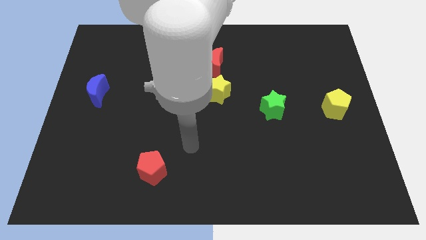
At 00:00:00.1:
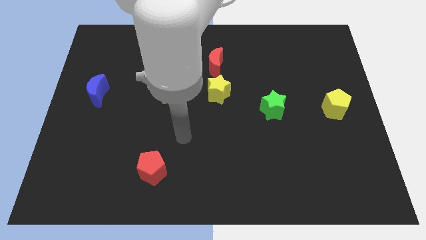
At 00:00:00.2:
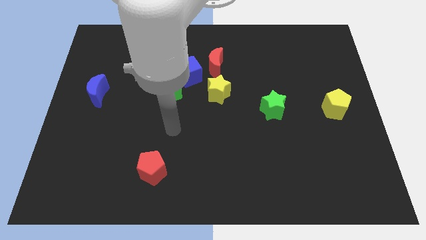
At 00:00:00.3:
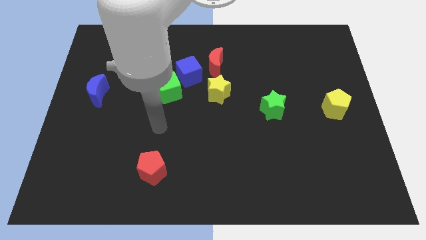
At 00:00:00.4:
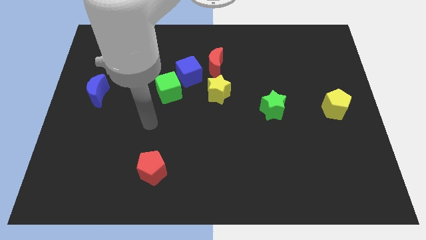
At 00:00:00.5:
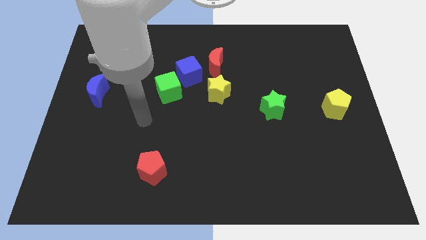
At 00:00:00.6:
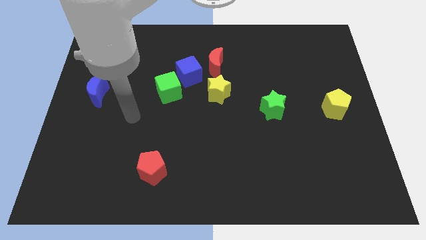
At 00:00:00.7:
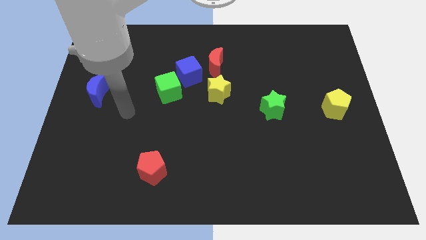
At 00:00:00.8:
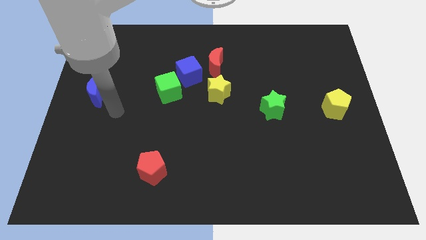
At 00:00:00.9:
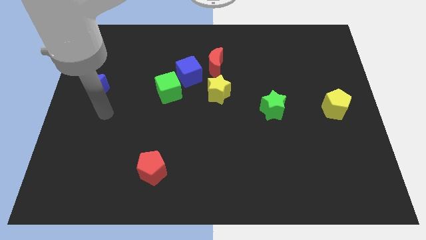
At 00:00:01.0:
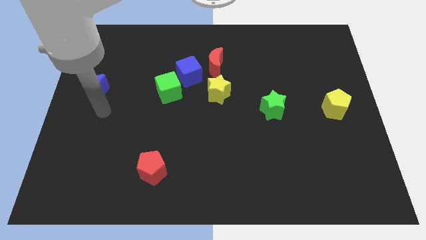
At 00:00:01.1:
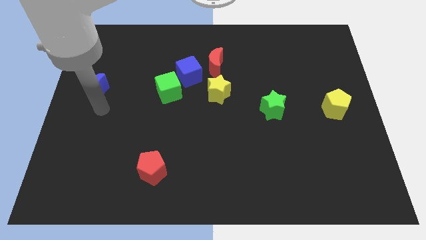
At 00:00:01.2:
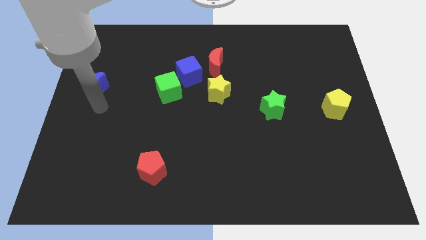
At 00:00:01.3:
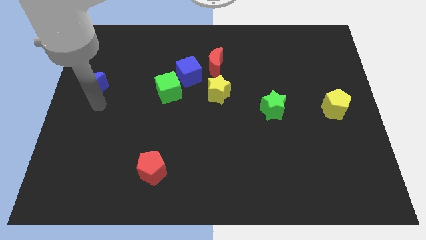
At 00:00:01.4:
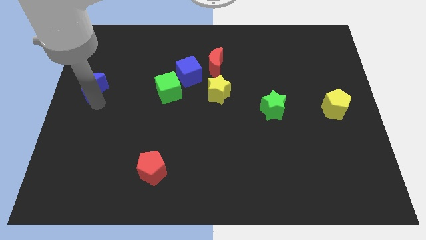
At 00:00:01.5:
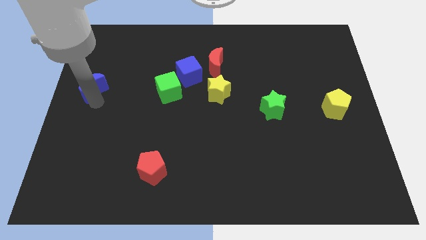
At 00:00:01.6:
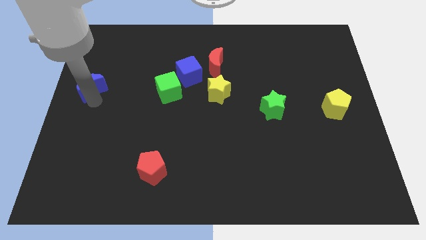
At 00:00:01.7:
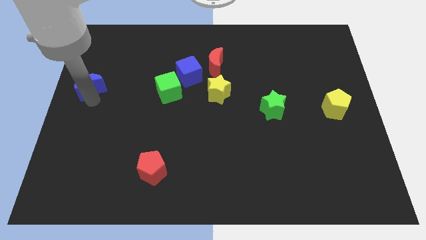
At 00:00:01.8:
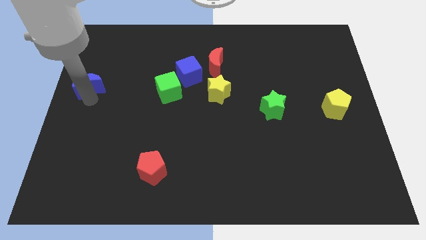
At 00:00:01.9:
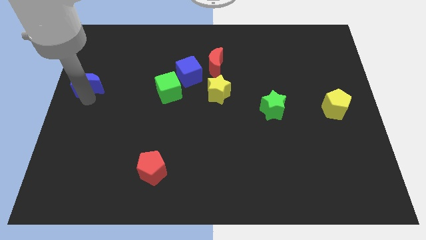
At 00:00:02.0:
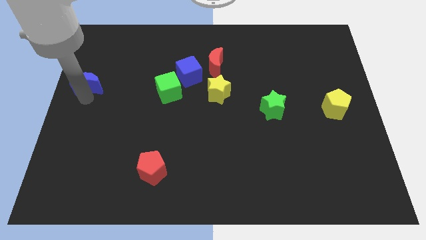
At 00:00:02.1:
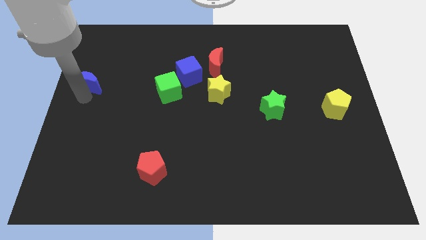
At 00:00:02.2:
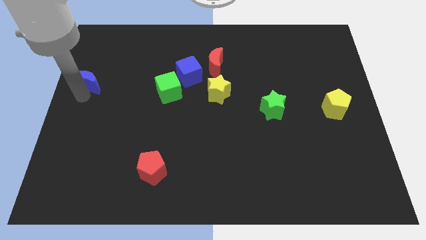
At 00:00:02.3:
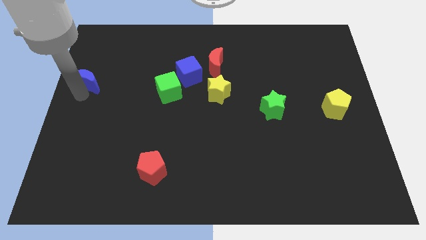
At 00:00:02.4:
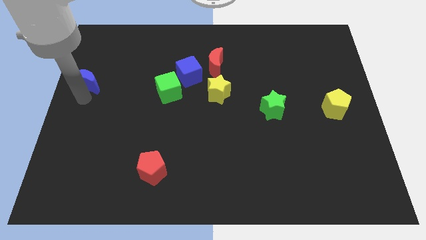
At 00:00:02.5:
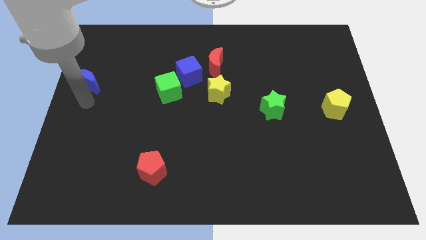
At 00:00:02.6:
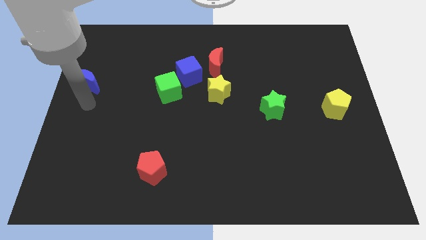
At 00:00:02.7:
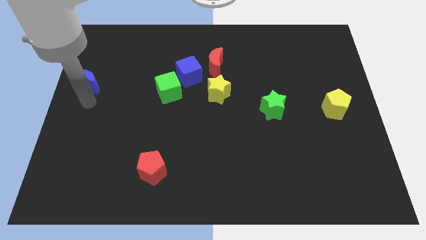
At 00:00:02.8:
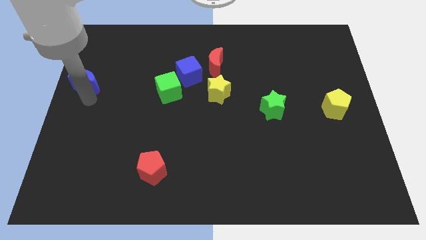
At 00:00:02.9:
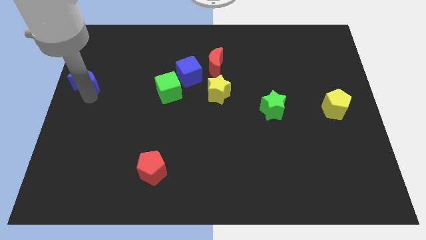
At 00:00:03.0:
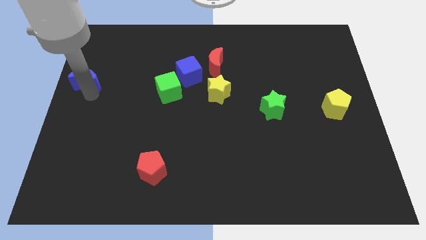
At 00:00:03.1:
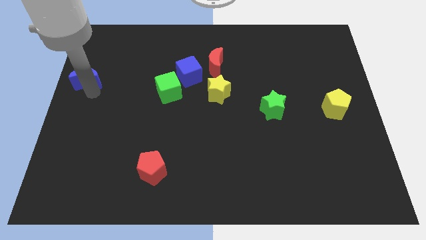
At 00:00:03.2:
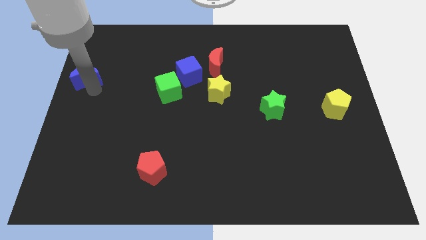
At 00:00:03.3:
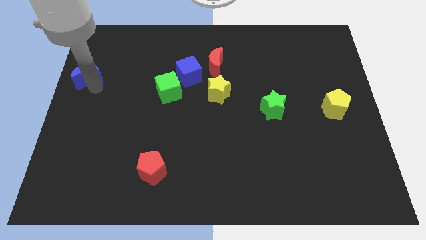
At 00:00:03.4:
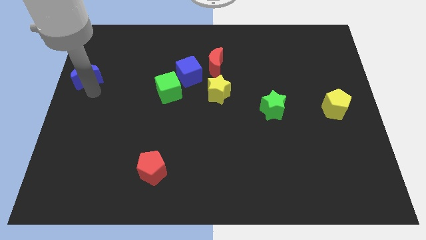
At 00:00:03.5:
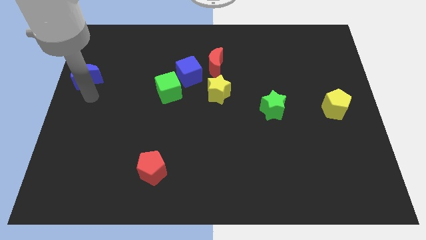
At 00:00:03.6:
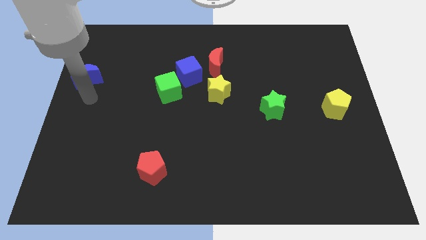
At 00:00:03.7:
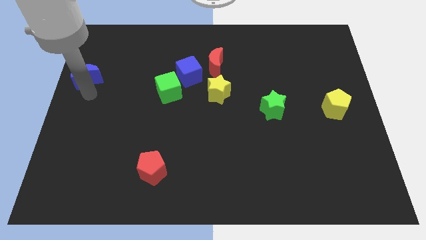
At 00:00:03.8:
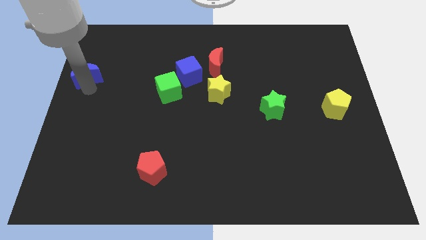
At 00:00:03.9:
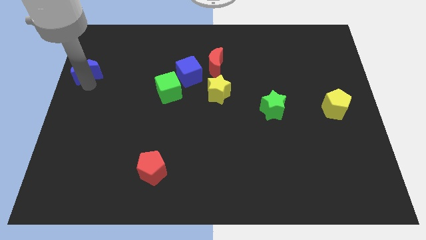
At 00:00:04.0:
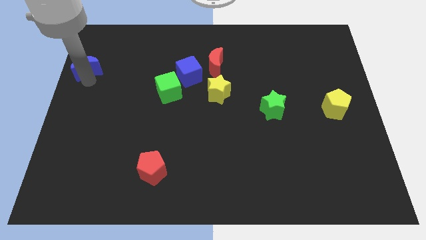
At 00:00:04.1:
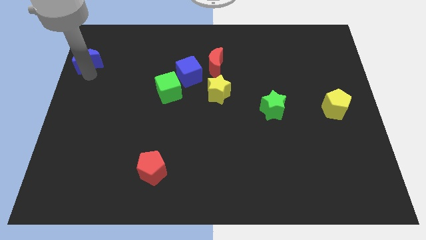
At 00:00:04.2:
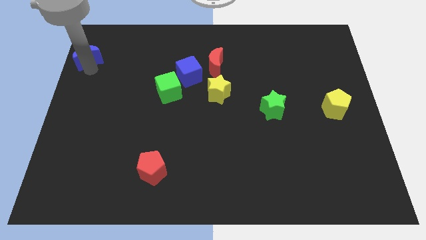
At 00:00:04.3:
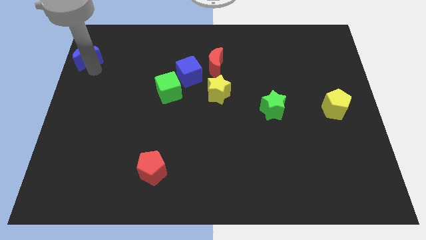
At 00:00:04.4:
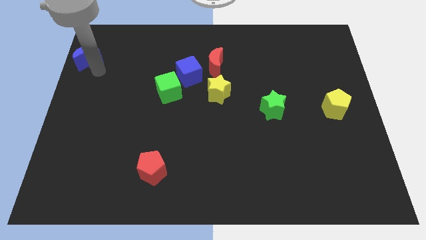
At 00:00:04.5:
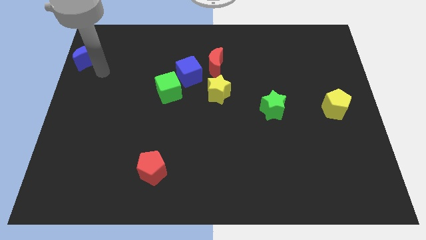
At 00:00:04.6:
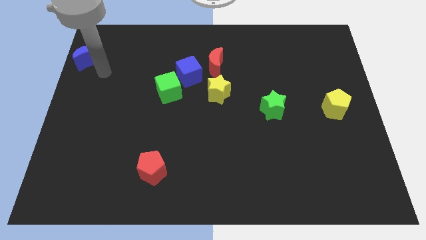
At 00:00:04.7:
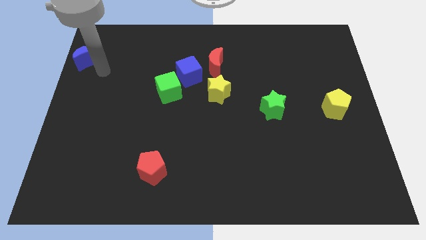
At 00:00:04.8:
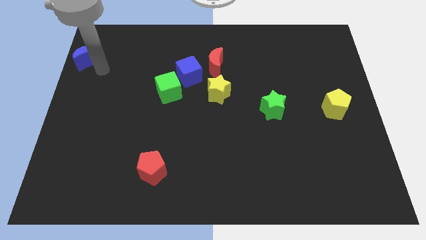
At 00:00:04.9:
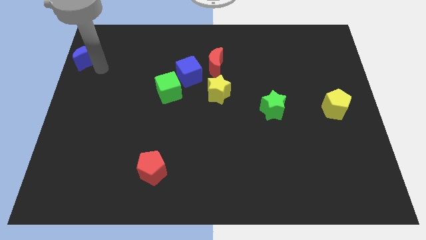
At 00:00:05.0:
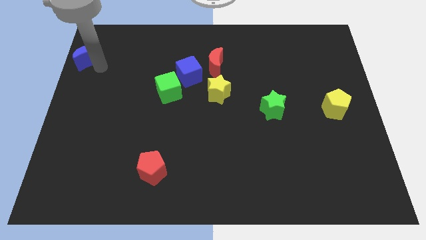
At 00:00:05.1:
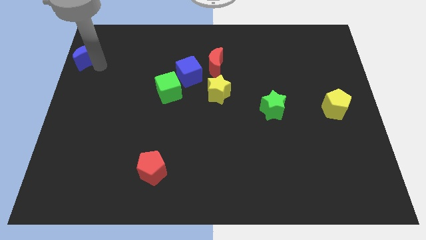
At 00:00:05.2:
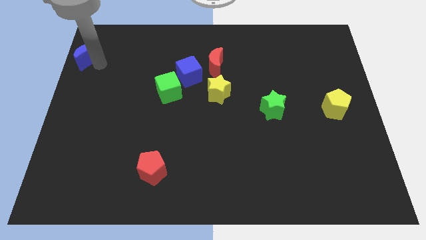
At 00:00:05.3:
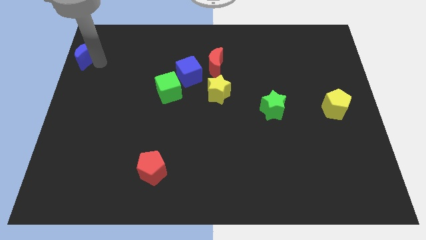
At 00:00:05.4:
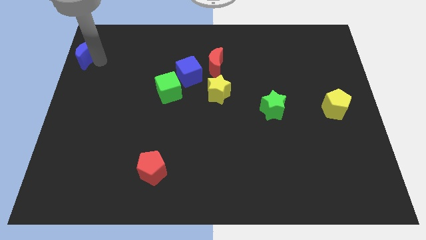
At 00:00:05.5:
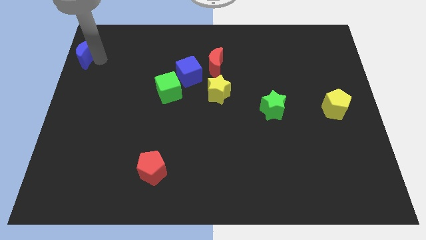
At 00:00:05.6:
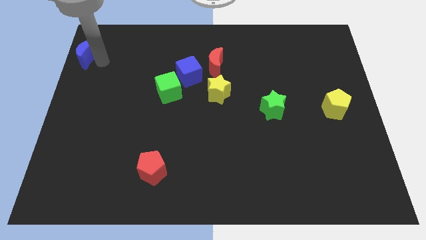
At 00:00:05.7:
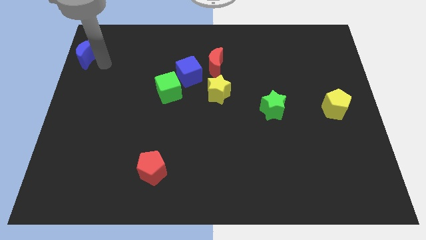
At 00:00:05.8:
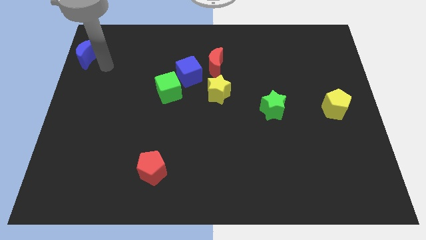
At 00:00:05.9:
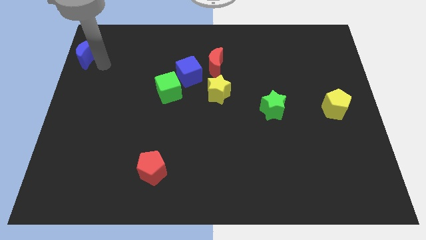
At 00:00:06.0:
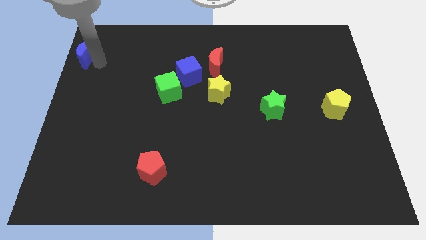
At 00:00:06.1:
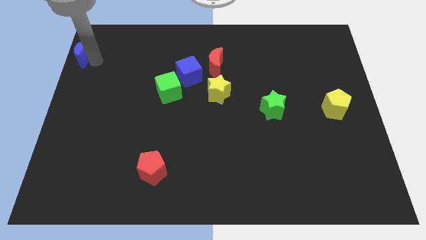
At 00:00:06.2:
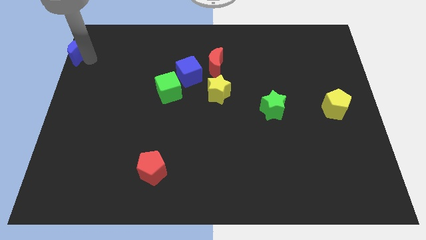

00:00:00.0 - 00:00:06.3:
put the blue moon to the top left of the board
